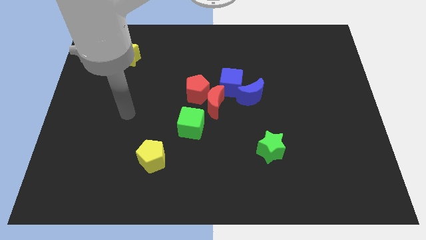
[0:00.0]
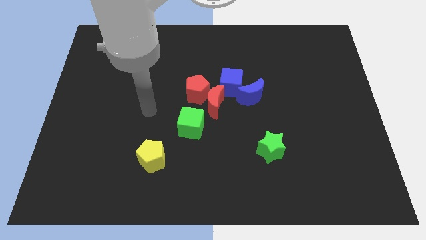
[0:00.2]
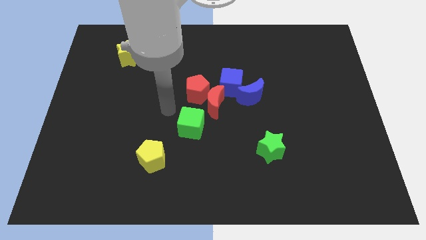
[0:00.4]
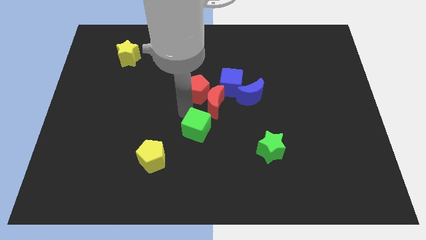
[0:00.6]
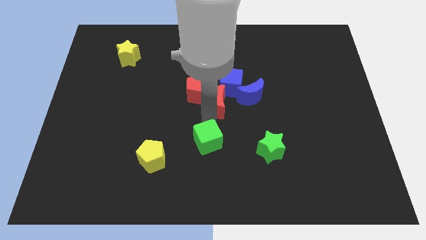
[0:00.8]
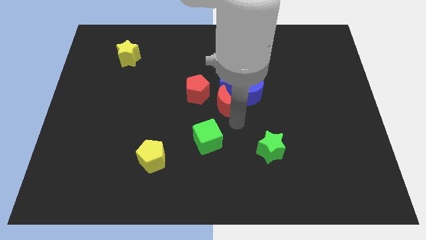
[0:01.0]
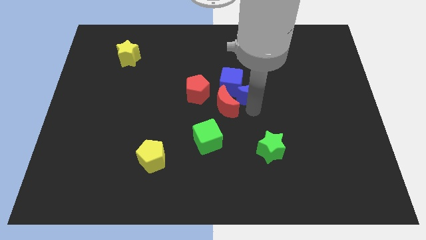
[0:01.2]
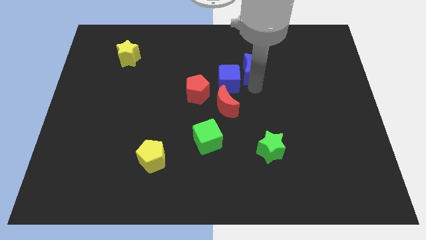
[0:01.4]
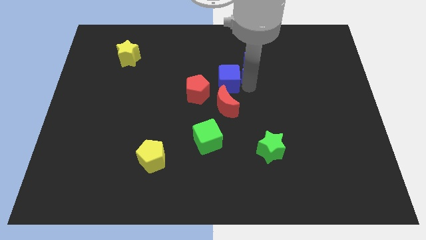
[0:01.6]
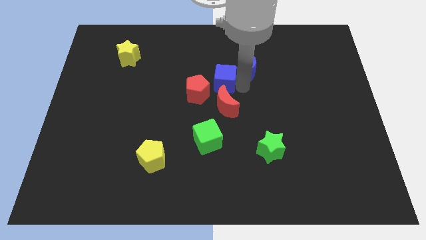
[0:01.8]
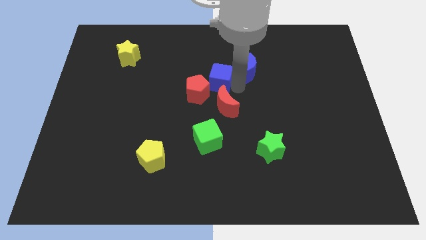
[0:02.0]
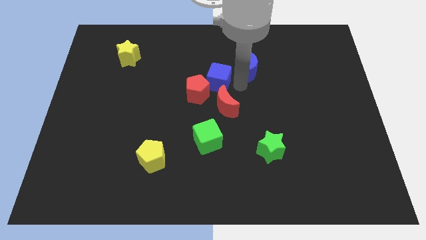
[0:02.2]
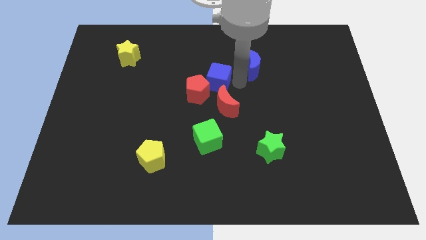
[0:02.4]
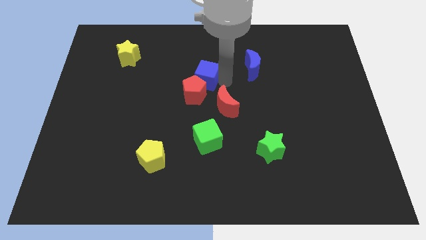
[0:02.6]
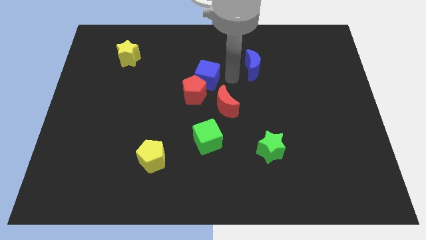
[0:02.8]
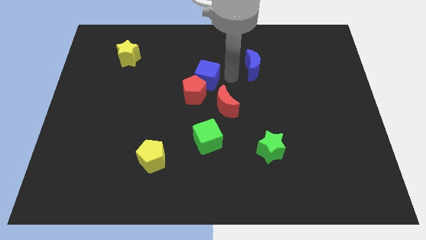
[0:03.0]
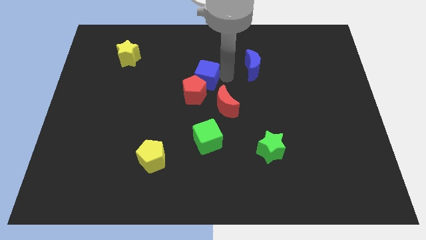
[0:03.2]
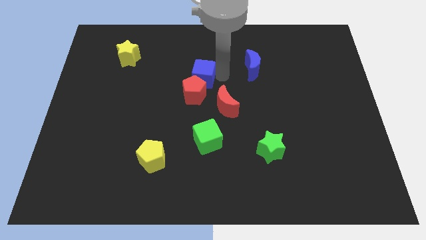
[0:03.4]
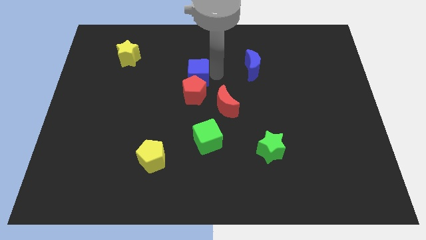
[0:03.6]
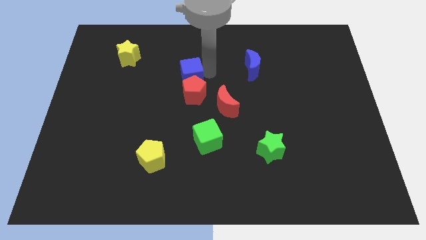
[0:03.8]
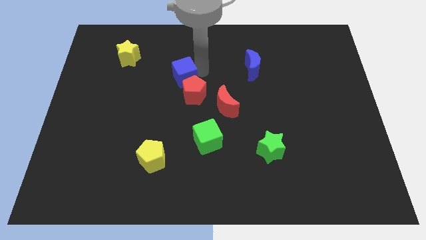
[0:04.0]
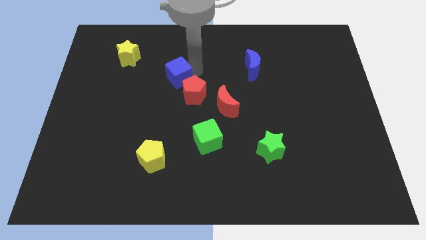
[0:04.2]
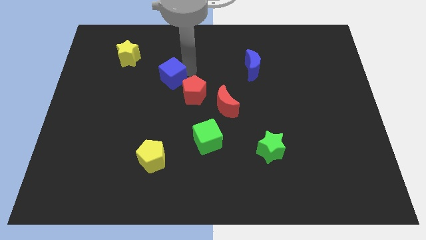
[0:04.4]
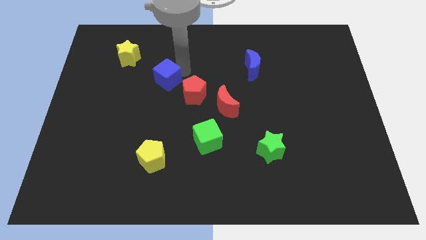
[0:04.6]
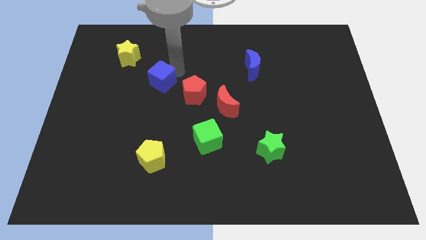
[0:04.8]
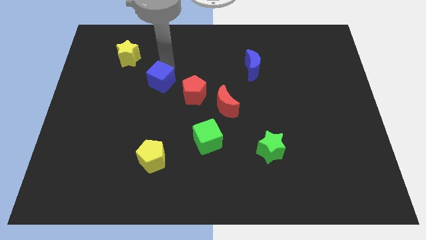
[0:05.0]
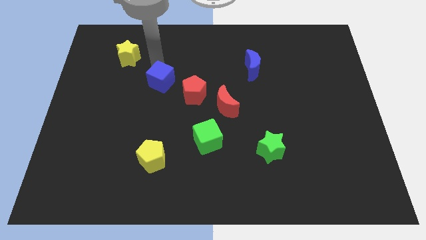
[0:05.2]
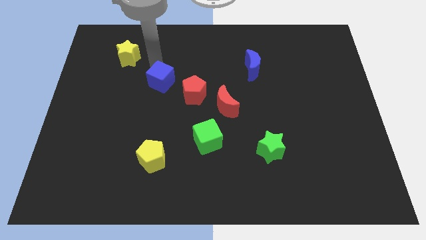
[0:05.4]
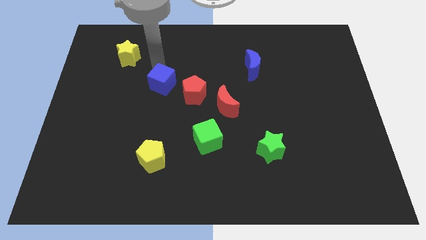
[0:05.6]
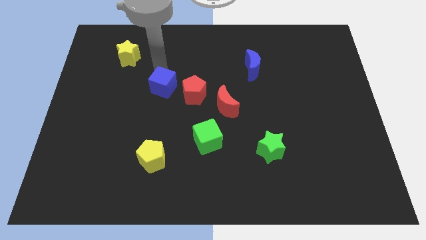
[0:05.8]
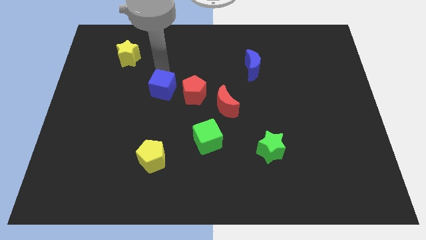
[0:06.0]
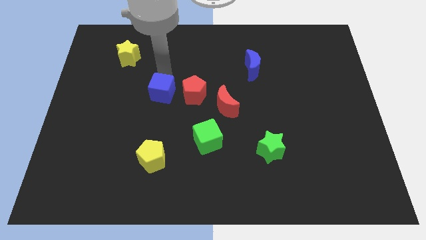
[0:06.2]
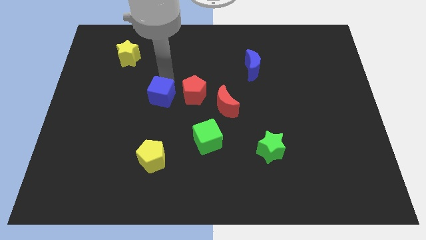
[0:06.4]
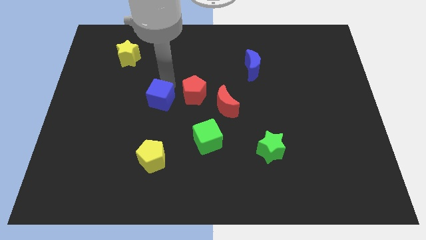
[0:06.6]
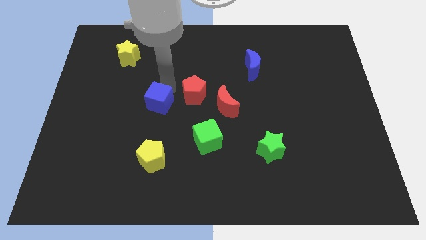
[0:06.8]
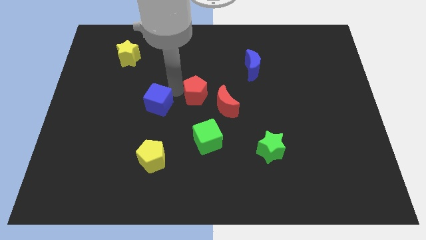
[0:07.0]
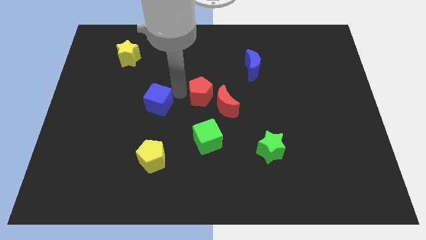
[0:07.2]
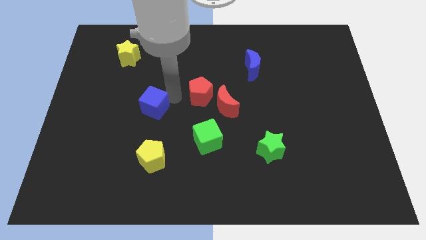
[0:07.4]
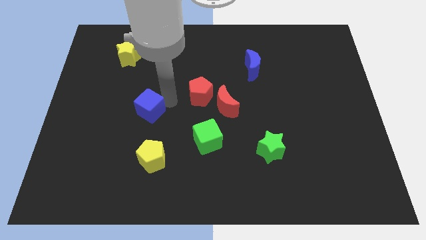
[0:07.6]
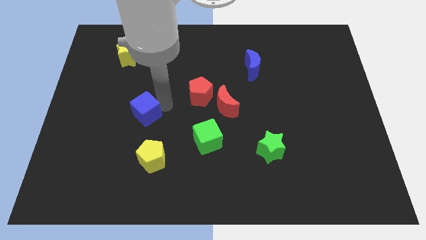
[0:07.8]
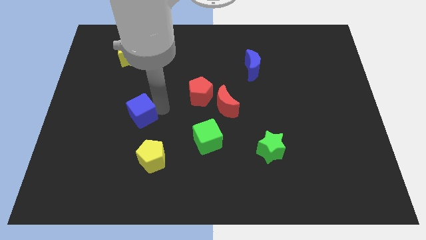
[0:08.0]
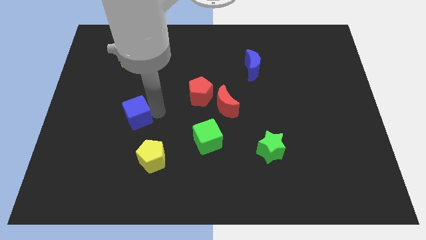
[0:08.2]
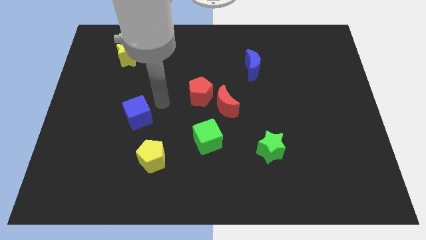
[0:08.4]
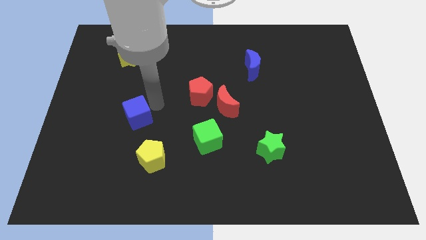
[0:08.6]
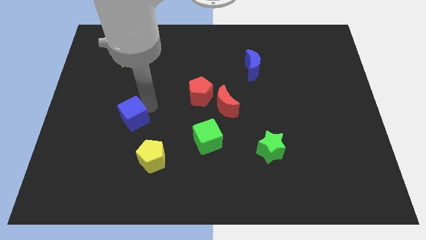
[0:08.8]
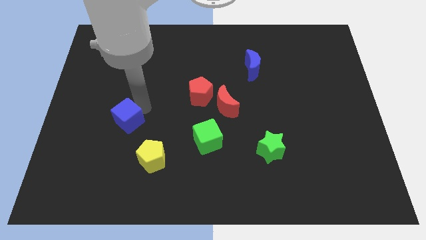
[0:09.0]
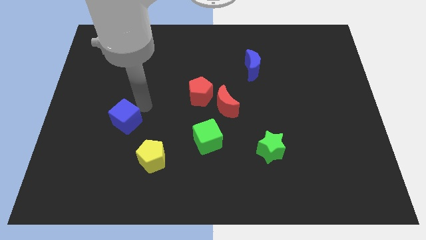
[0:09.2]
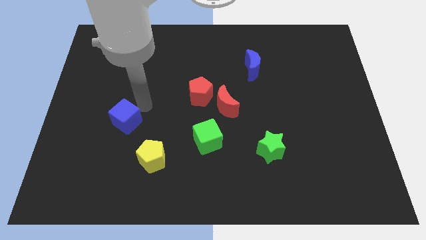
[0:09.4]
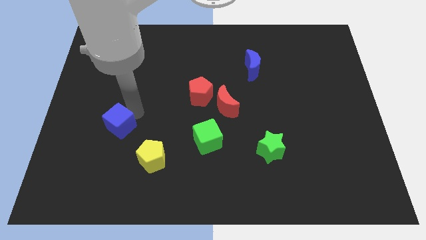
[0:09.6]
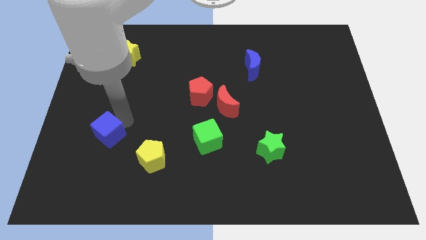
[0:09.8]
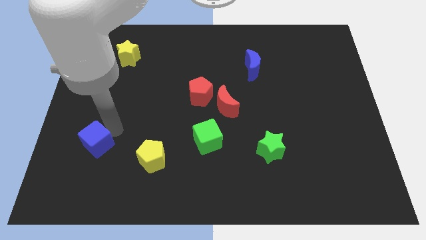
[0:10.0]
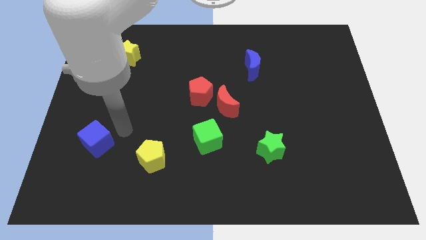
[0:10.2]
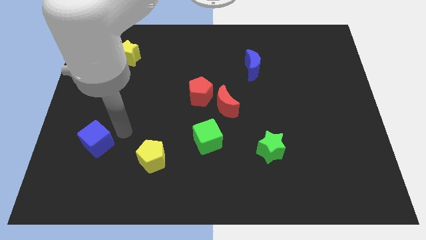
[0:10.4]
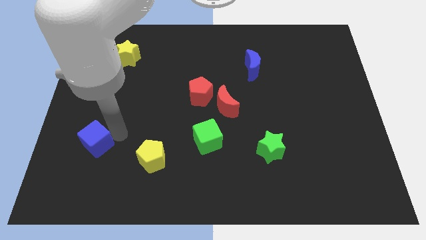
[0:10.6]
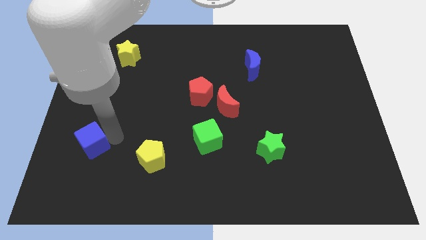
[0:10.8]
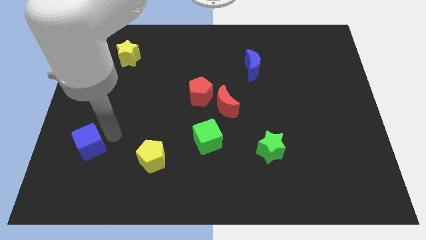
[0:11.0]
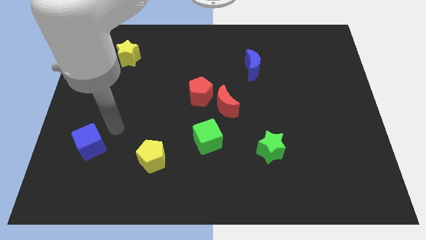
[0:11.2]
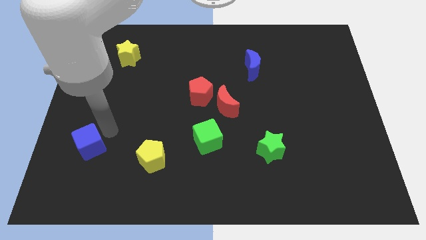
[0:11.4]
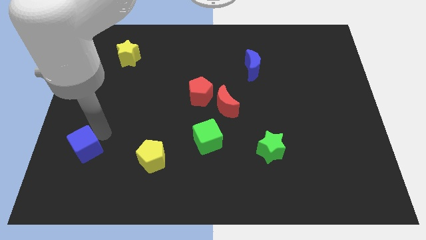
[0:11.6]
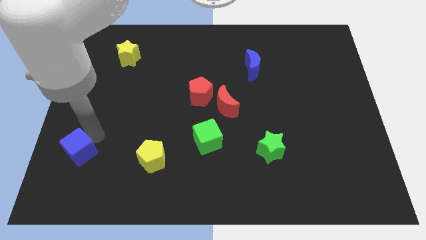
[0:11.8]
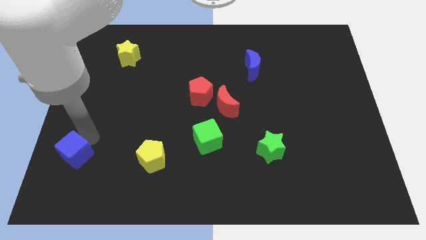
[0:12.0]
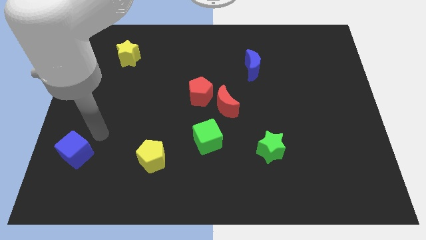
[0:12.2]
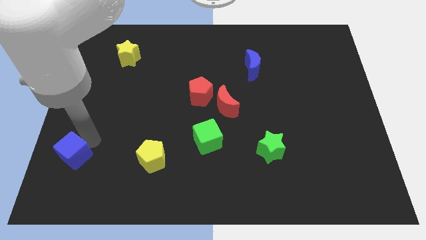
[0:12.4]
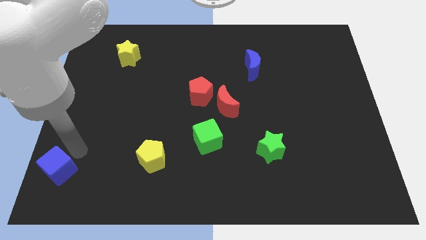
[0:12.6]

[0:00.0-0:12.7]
push the blue cube to the lower left corner

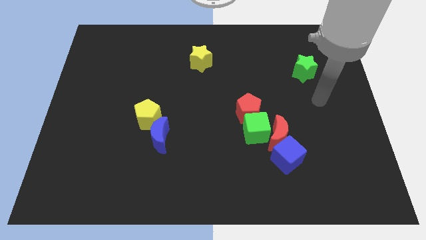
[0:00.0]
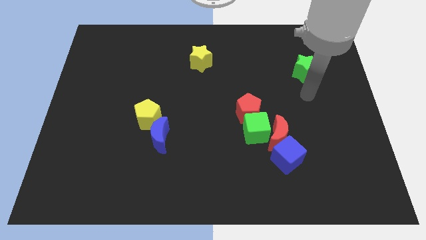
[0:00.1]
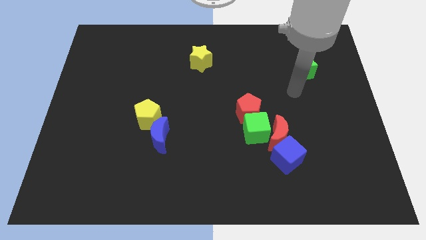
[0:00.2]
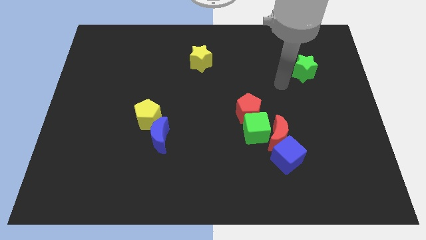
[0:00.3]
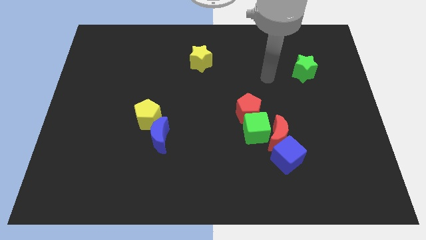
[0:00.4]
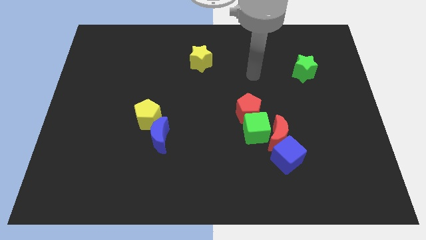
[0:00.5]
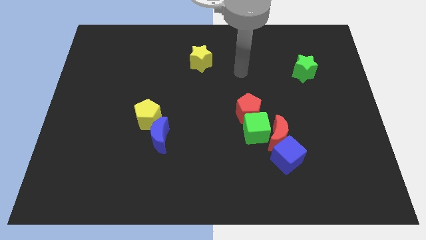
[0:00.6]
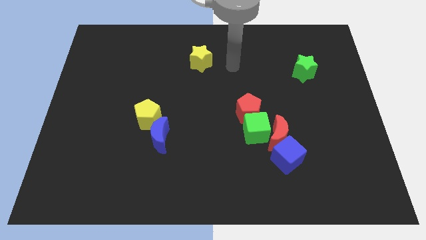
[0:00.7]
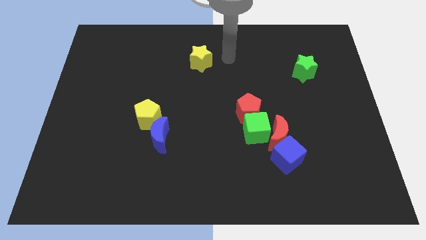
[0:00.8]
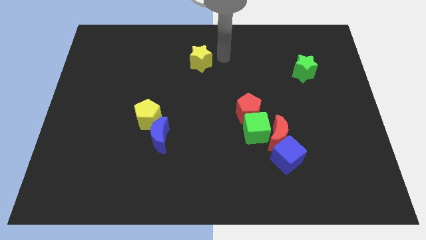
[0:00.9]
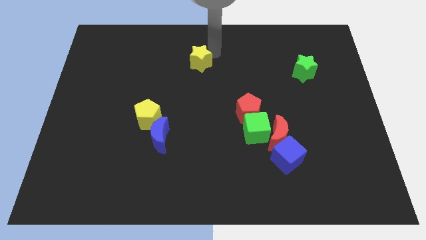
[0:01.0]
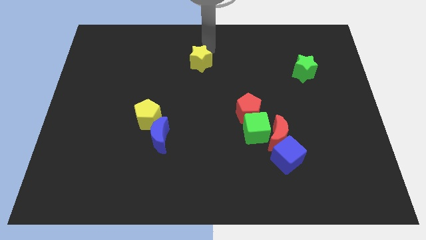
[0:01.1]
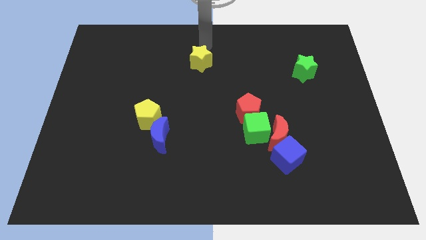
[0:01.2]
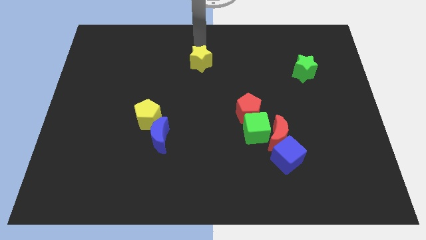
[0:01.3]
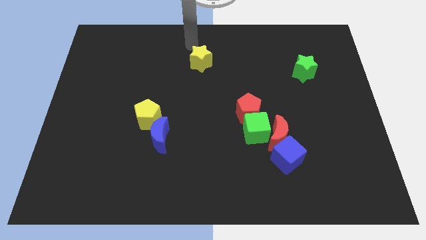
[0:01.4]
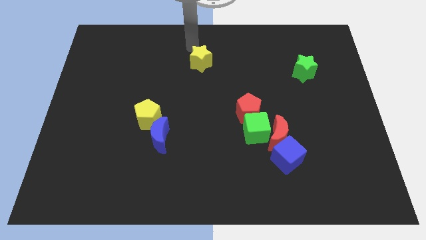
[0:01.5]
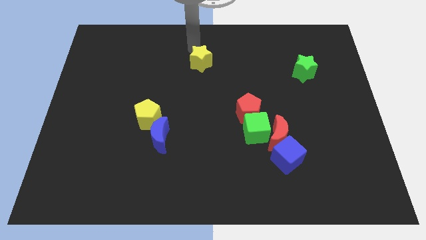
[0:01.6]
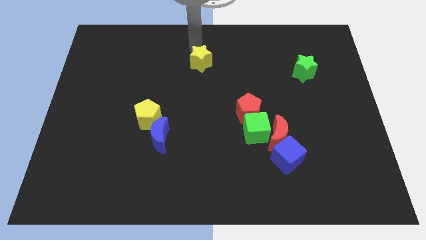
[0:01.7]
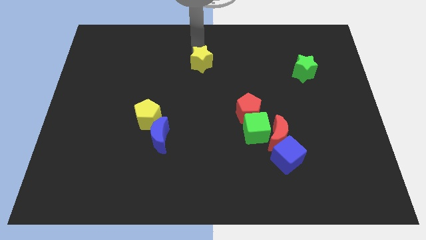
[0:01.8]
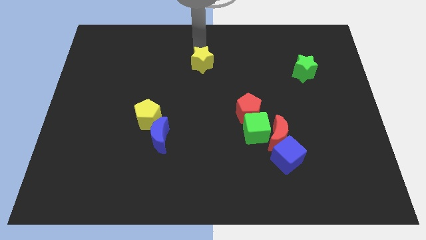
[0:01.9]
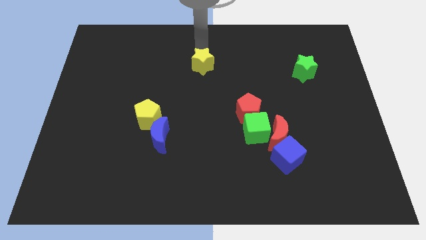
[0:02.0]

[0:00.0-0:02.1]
push the yellow star to the center

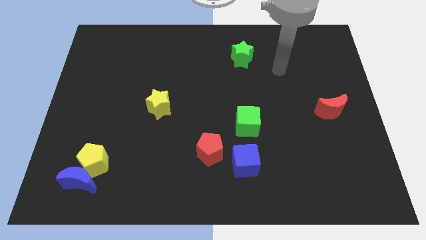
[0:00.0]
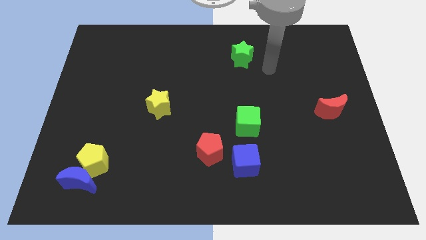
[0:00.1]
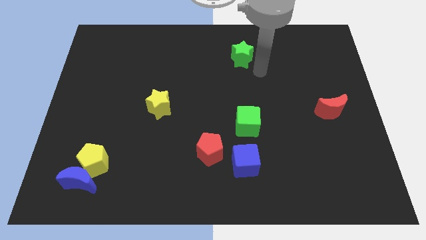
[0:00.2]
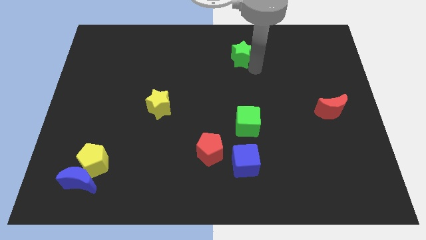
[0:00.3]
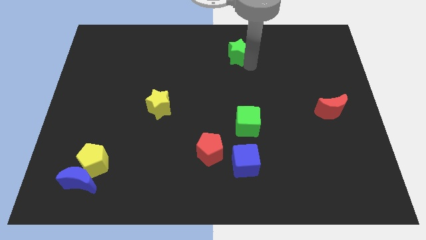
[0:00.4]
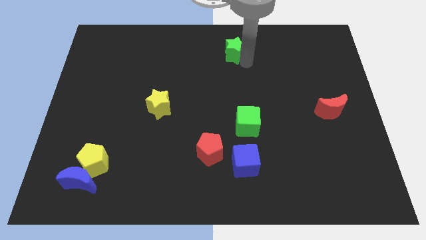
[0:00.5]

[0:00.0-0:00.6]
push the green star to the towards your base
